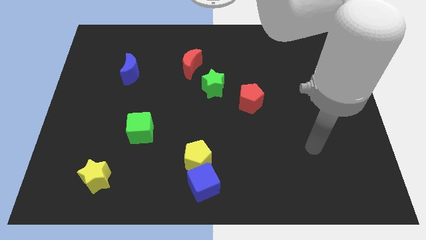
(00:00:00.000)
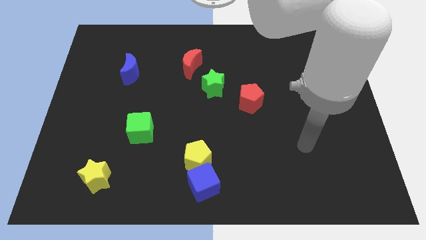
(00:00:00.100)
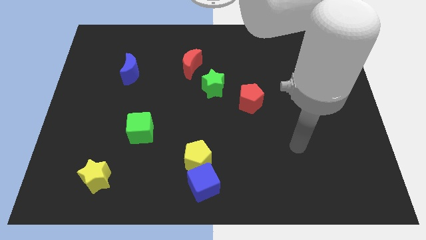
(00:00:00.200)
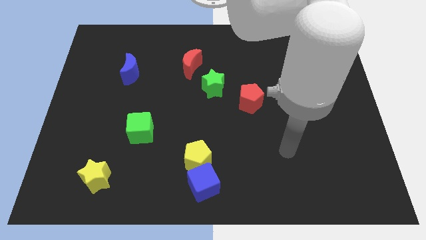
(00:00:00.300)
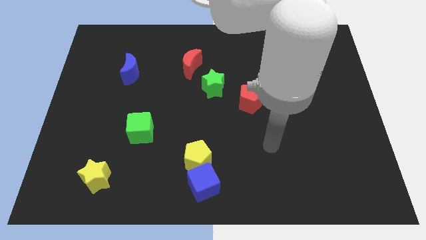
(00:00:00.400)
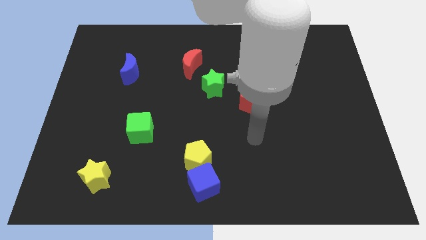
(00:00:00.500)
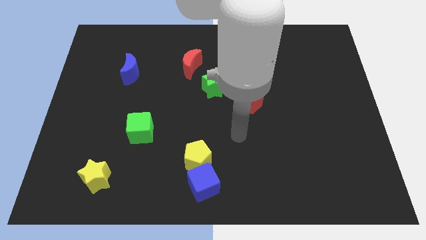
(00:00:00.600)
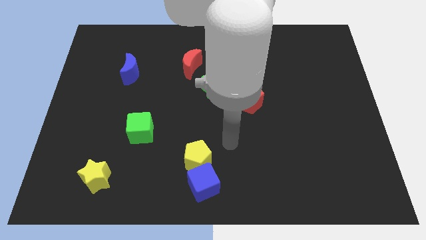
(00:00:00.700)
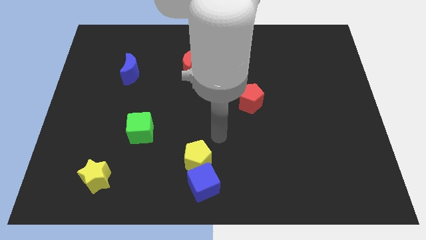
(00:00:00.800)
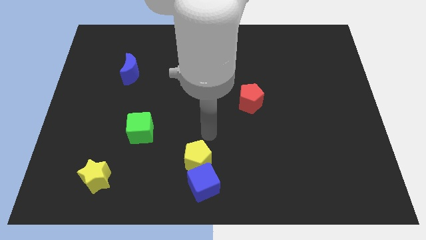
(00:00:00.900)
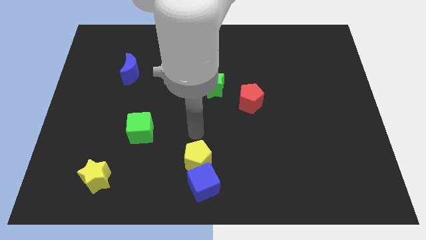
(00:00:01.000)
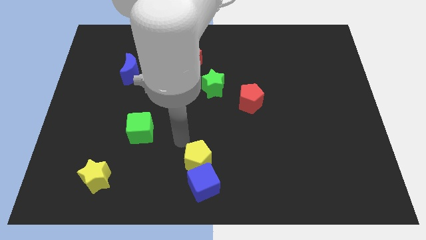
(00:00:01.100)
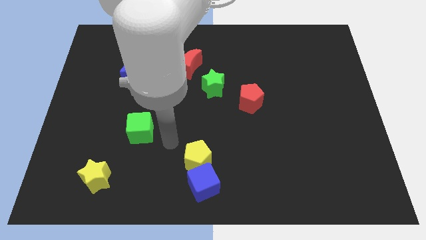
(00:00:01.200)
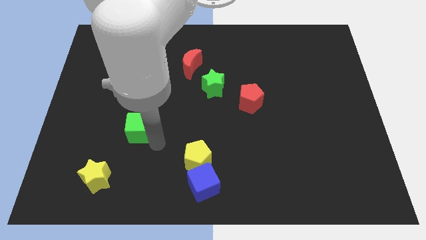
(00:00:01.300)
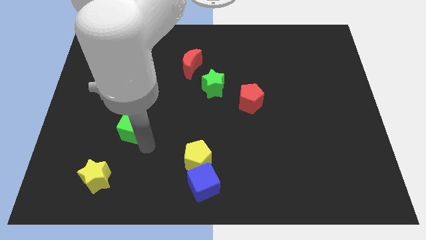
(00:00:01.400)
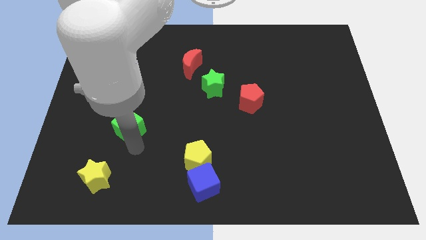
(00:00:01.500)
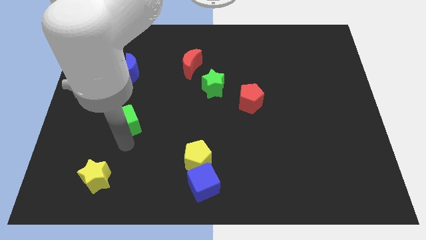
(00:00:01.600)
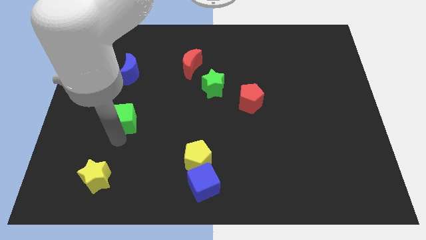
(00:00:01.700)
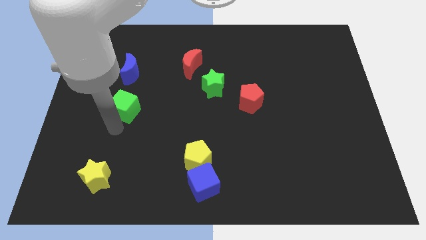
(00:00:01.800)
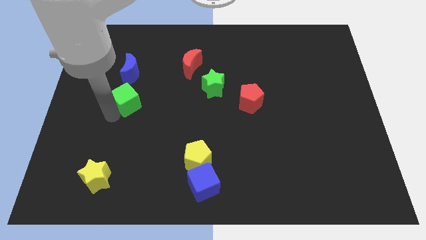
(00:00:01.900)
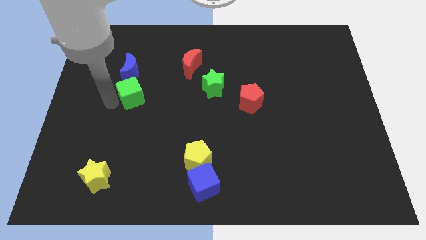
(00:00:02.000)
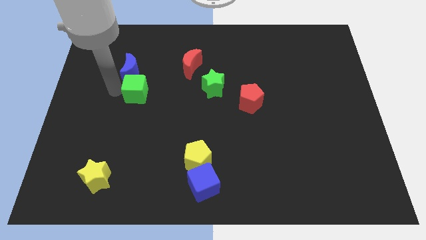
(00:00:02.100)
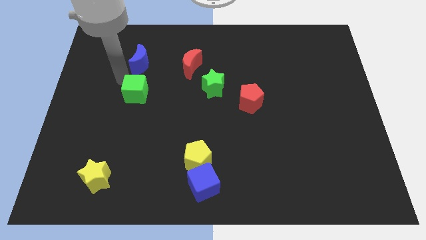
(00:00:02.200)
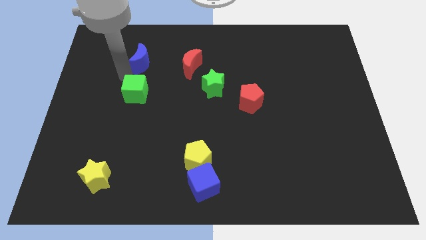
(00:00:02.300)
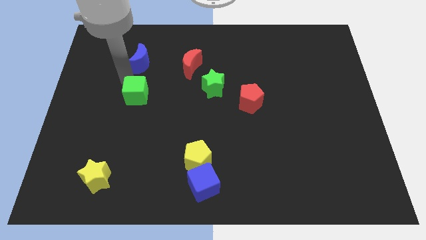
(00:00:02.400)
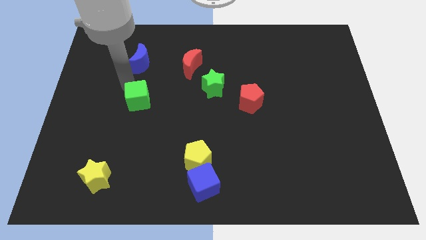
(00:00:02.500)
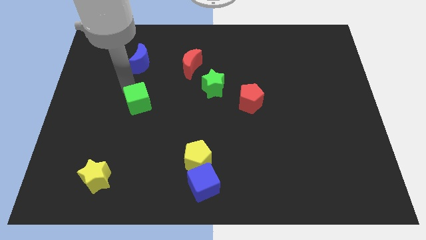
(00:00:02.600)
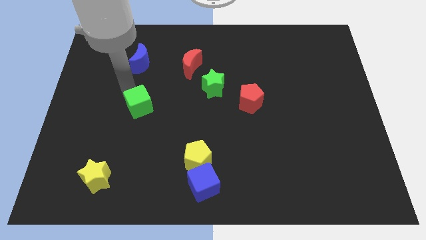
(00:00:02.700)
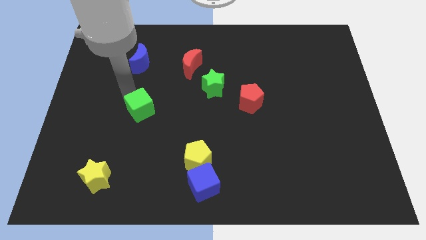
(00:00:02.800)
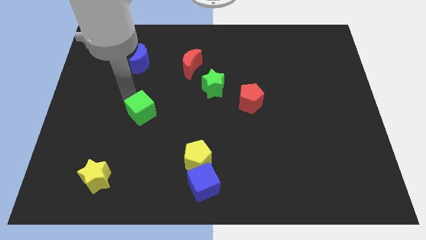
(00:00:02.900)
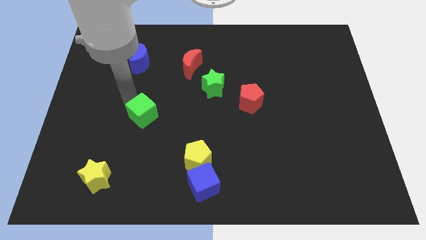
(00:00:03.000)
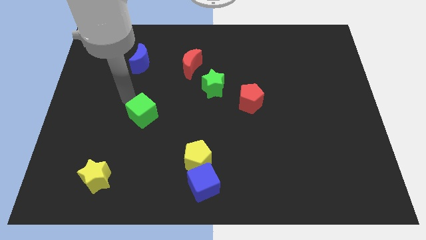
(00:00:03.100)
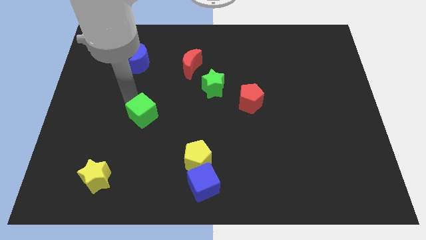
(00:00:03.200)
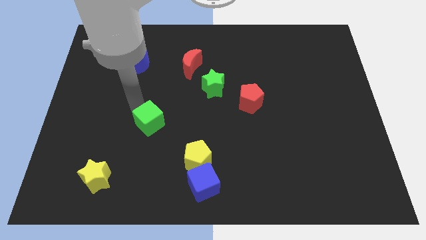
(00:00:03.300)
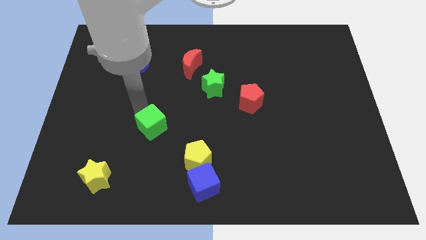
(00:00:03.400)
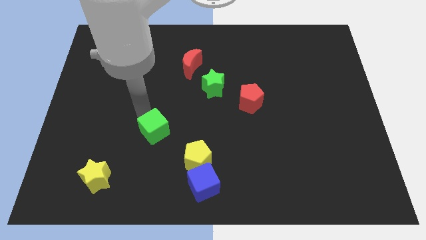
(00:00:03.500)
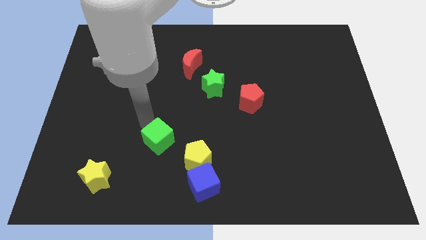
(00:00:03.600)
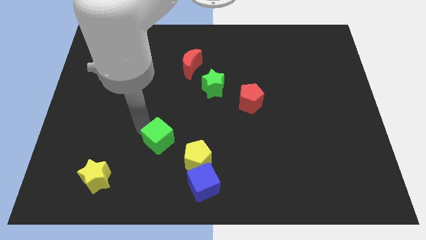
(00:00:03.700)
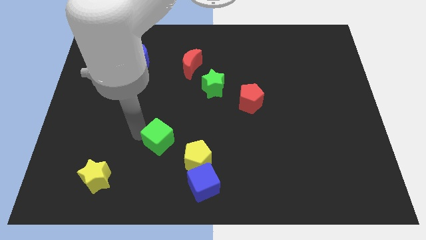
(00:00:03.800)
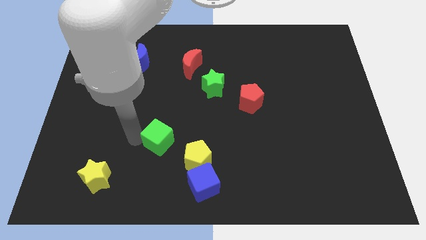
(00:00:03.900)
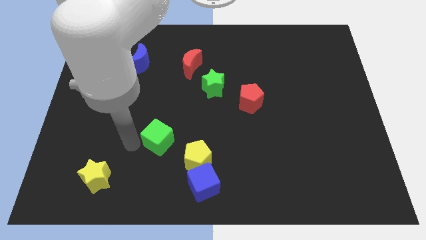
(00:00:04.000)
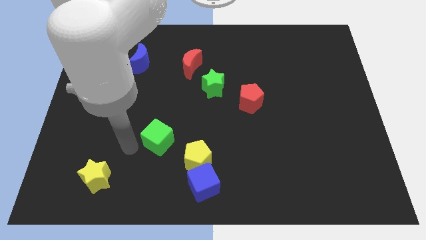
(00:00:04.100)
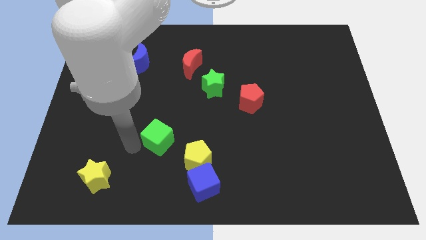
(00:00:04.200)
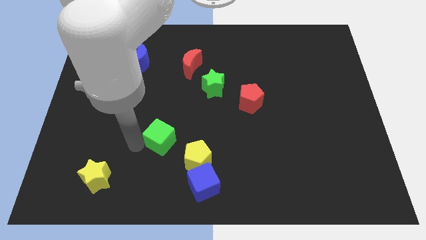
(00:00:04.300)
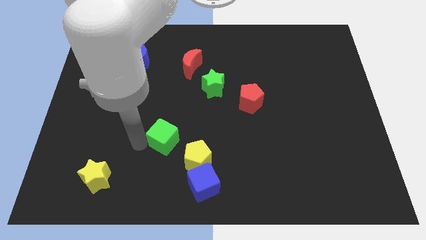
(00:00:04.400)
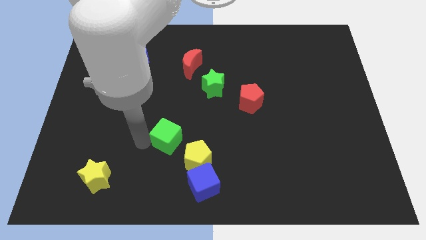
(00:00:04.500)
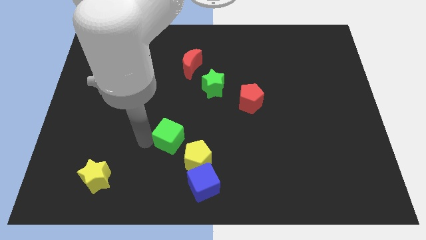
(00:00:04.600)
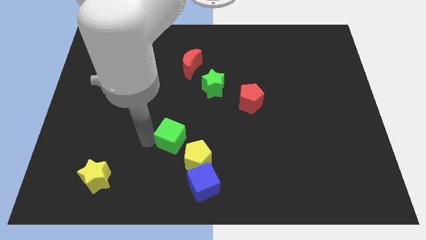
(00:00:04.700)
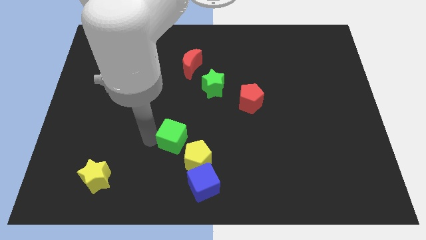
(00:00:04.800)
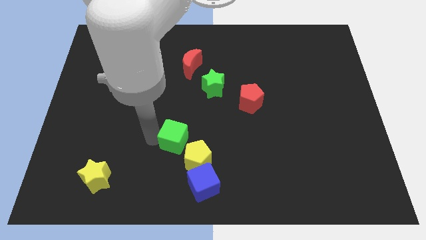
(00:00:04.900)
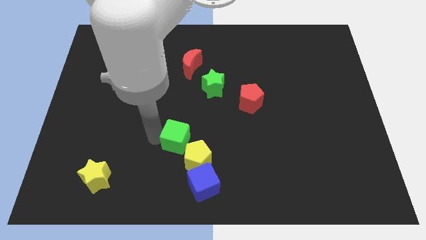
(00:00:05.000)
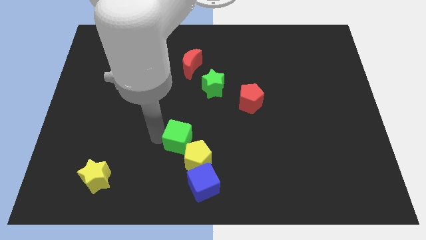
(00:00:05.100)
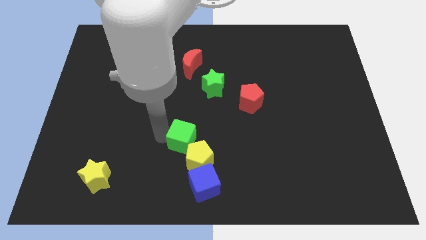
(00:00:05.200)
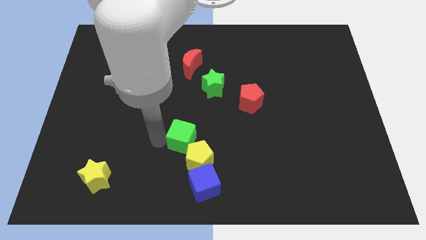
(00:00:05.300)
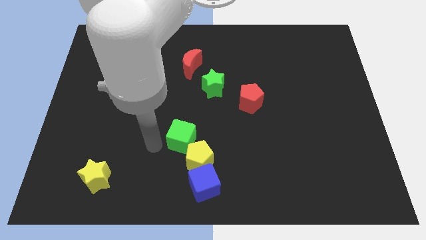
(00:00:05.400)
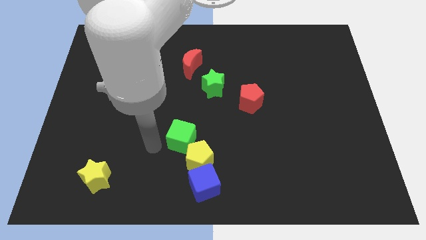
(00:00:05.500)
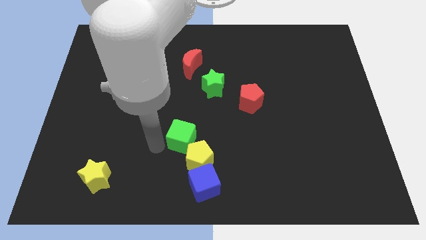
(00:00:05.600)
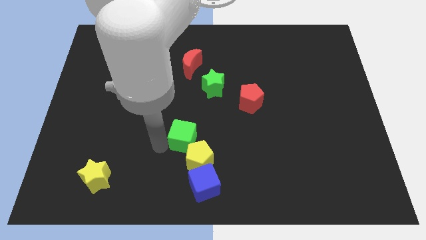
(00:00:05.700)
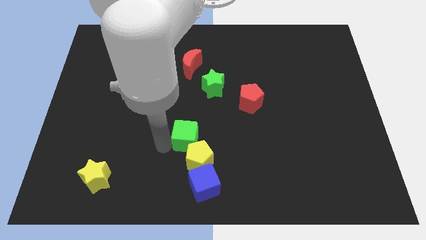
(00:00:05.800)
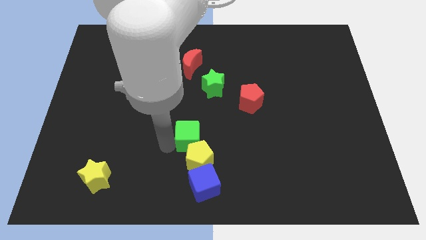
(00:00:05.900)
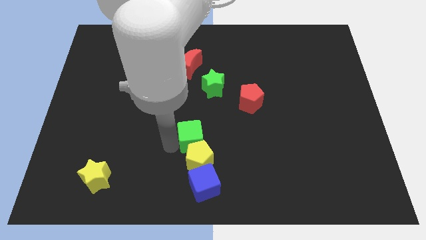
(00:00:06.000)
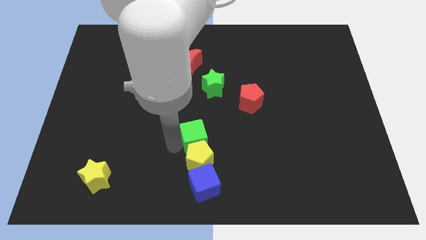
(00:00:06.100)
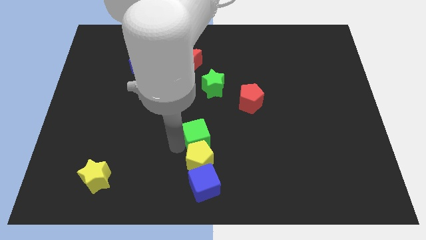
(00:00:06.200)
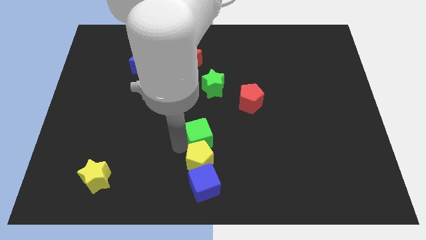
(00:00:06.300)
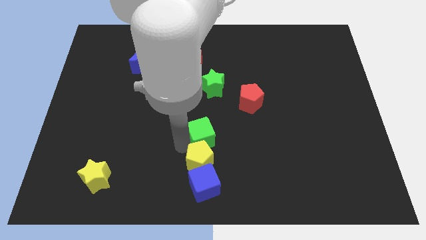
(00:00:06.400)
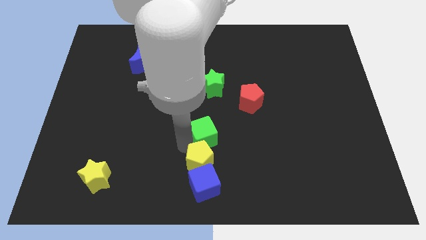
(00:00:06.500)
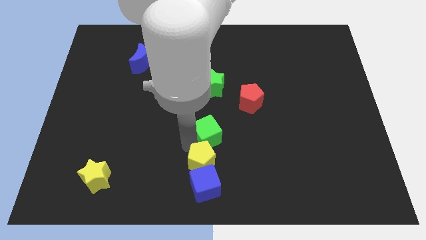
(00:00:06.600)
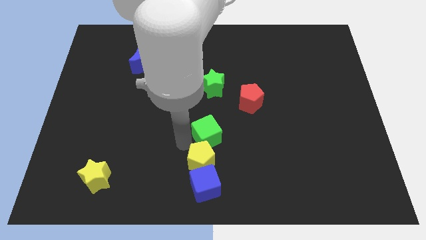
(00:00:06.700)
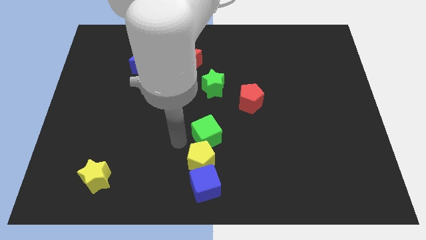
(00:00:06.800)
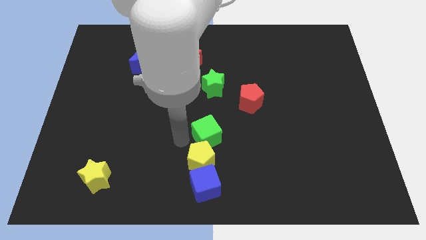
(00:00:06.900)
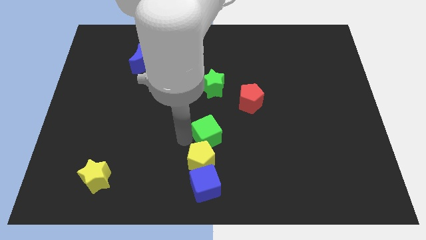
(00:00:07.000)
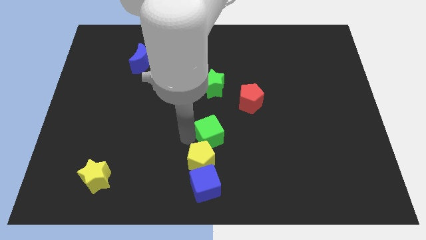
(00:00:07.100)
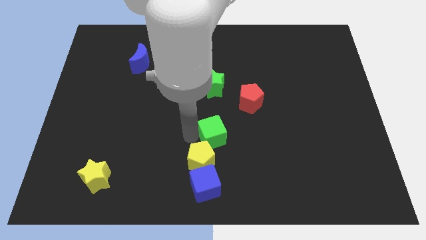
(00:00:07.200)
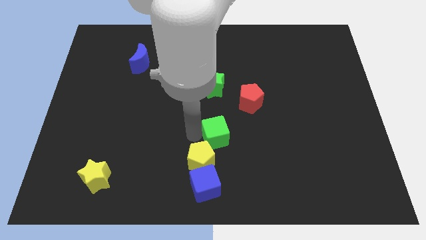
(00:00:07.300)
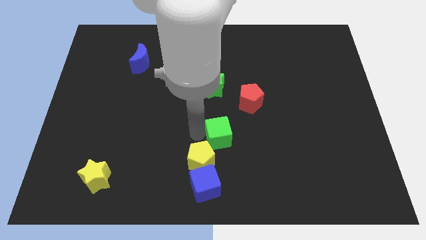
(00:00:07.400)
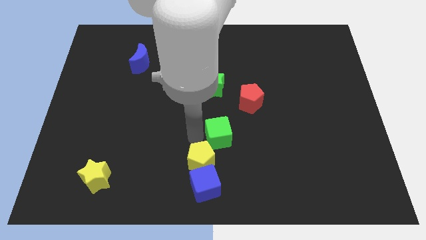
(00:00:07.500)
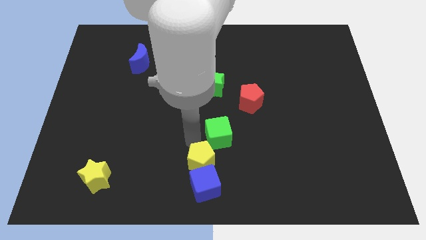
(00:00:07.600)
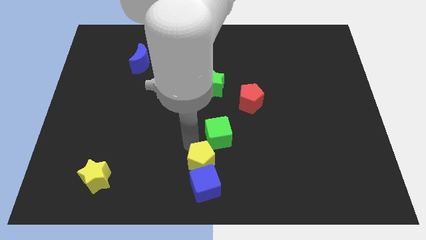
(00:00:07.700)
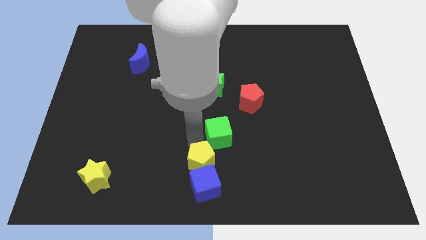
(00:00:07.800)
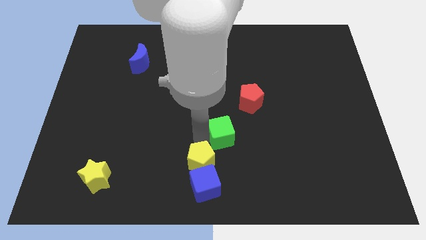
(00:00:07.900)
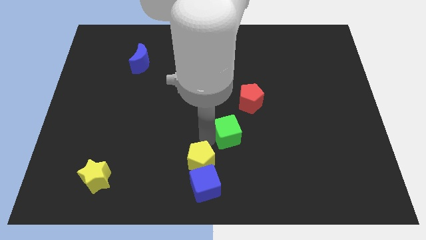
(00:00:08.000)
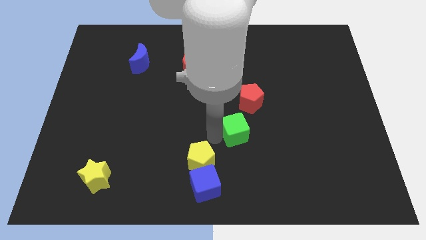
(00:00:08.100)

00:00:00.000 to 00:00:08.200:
push the green cube to the right

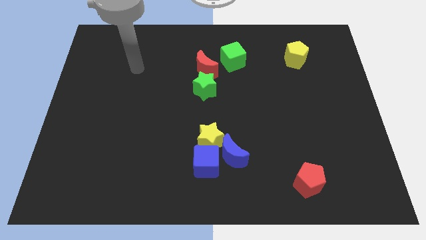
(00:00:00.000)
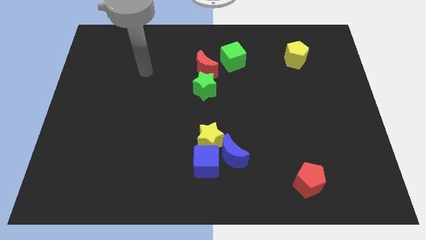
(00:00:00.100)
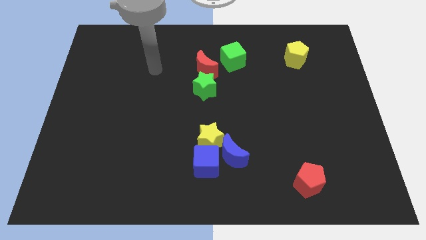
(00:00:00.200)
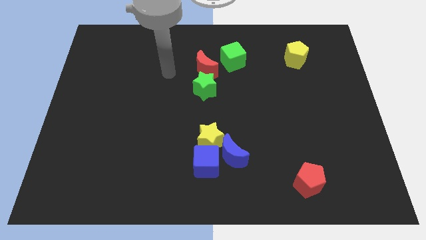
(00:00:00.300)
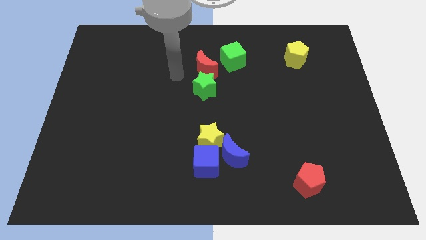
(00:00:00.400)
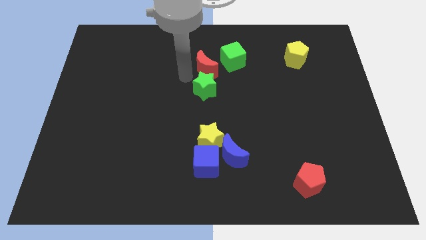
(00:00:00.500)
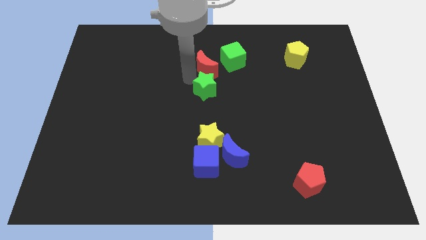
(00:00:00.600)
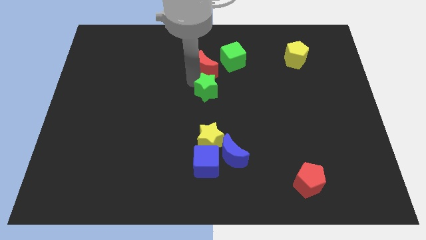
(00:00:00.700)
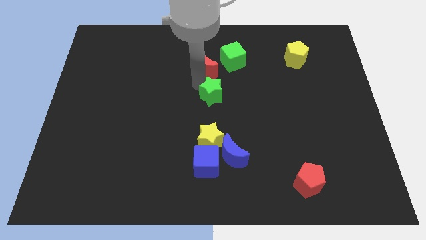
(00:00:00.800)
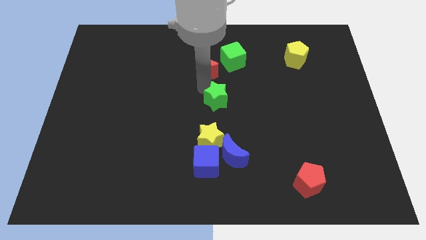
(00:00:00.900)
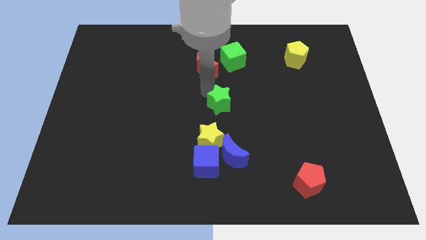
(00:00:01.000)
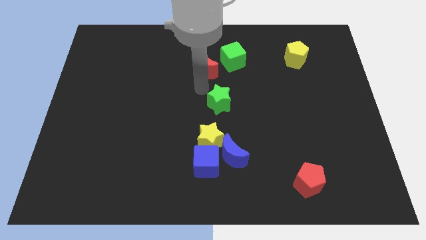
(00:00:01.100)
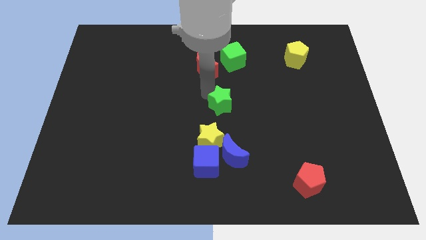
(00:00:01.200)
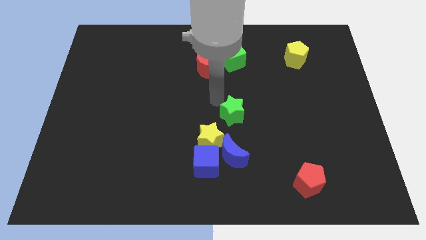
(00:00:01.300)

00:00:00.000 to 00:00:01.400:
move the green star diagonally down and right a little bit
